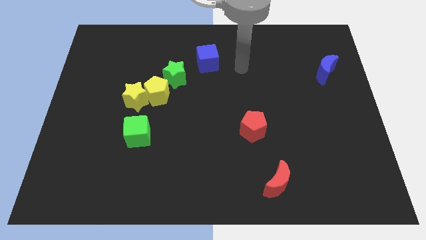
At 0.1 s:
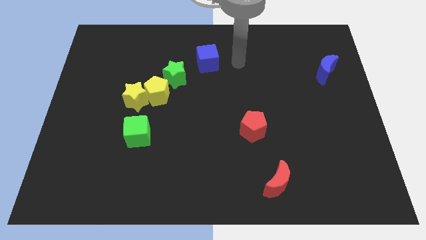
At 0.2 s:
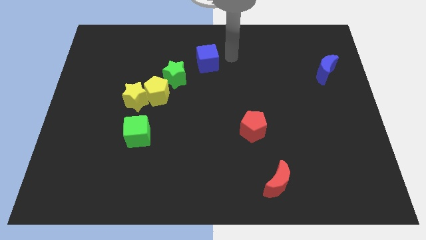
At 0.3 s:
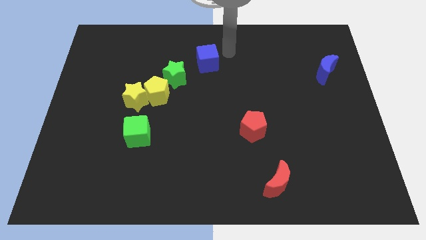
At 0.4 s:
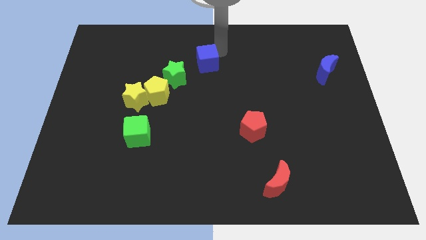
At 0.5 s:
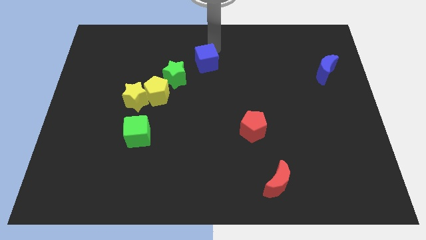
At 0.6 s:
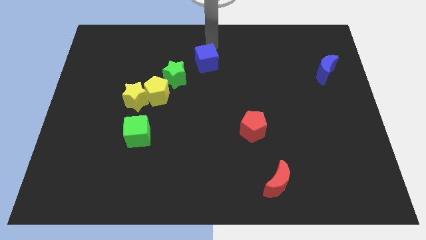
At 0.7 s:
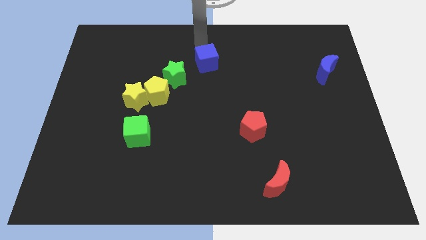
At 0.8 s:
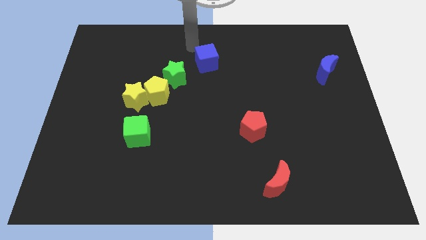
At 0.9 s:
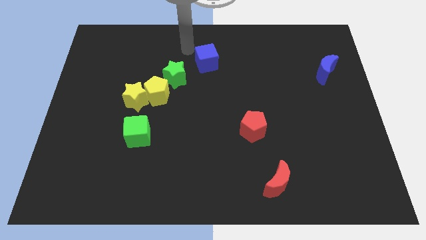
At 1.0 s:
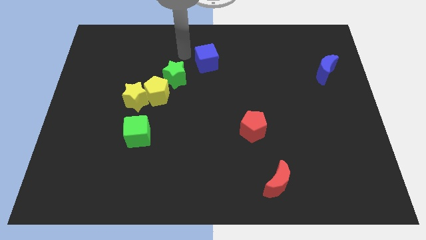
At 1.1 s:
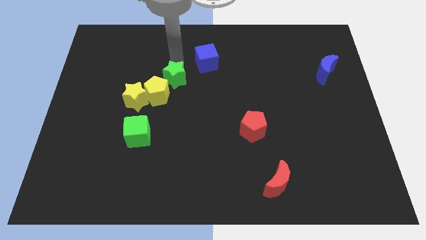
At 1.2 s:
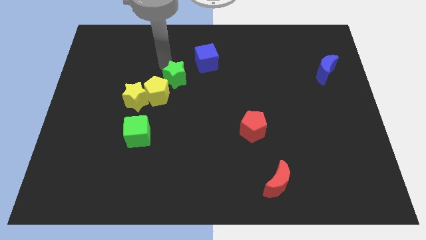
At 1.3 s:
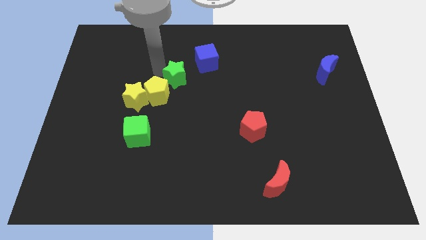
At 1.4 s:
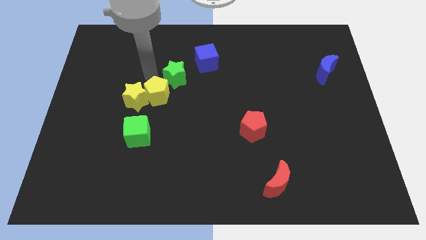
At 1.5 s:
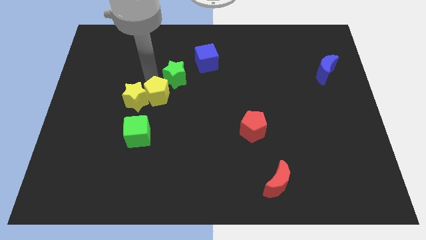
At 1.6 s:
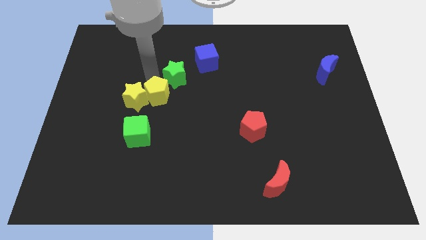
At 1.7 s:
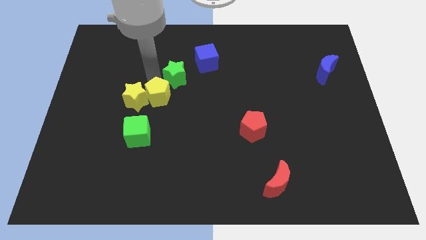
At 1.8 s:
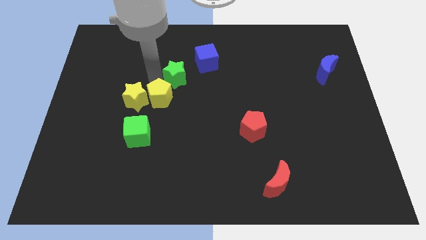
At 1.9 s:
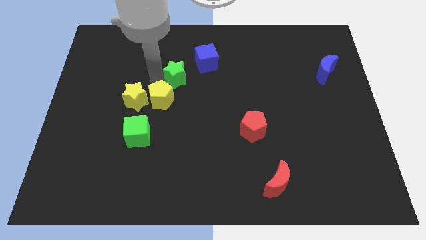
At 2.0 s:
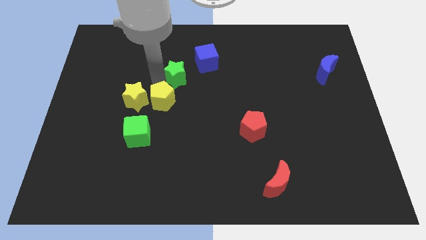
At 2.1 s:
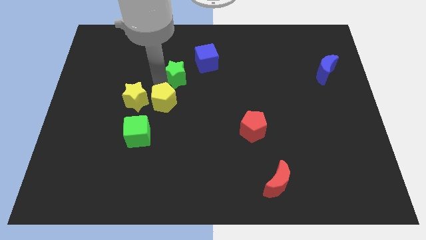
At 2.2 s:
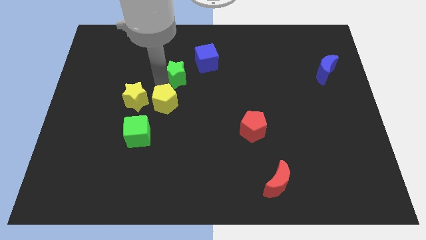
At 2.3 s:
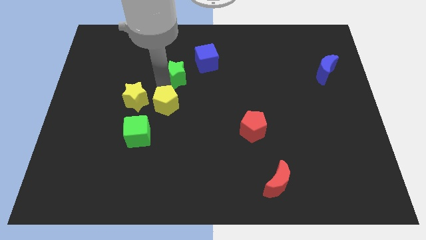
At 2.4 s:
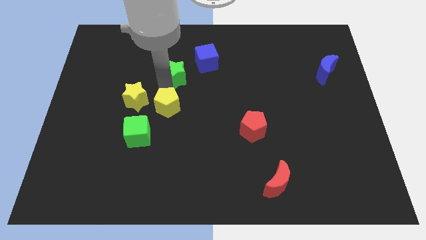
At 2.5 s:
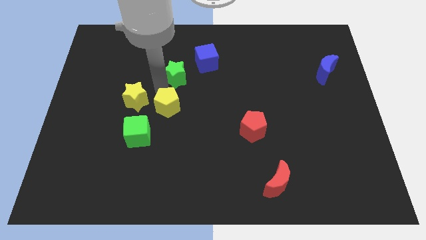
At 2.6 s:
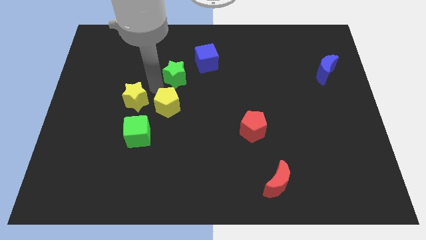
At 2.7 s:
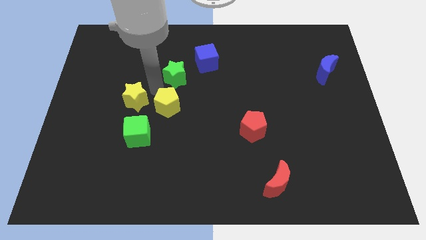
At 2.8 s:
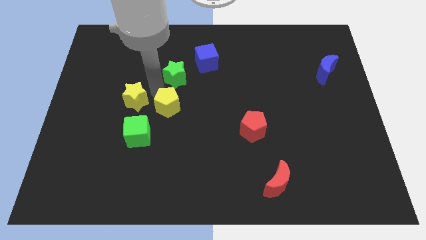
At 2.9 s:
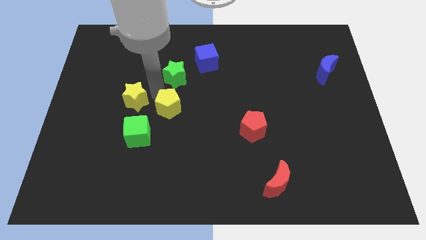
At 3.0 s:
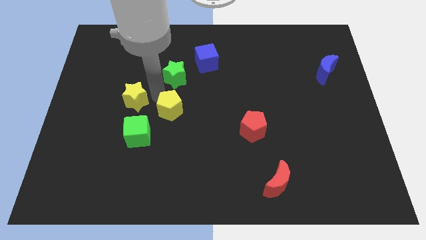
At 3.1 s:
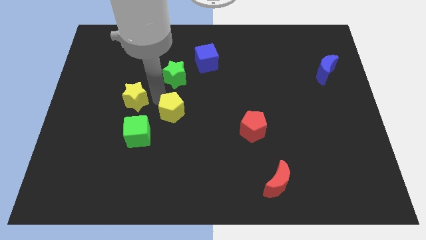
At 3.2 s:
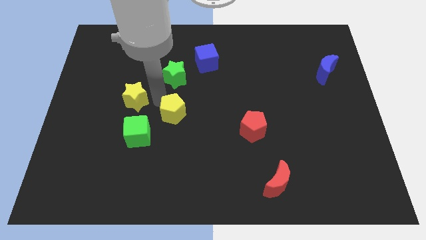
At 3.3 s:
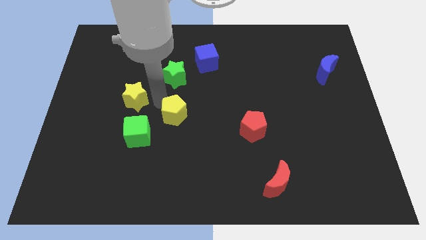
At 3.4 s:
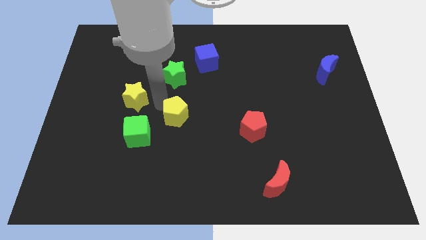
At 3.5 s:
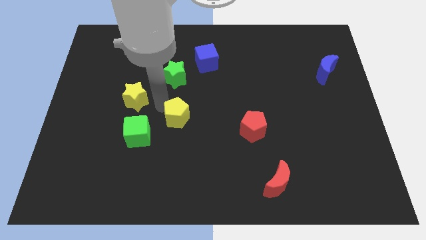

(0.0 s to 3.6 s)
move the yellow pentagon away from the yellow star and green star

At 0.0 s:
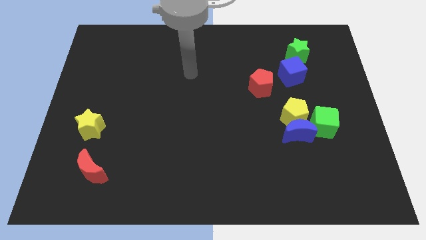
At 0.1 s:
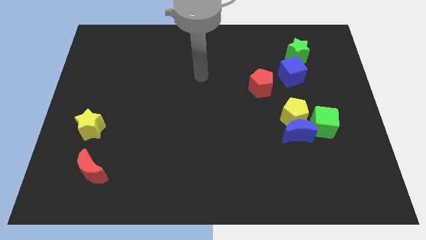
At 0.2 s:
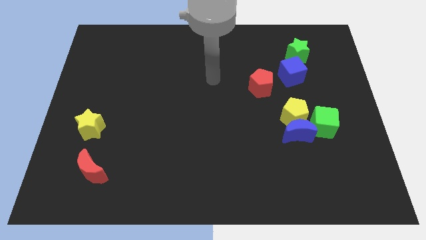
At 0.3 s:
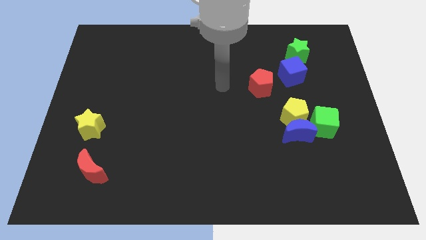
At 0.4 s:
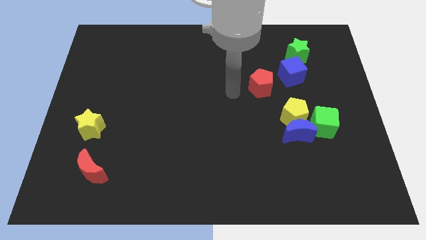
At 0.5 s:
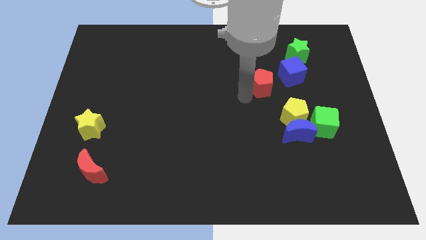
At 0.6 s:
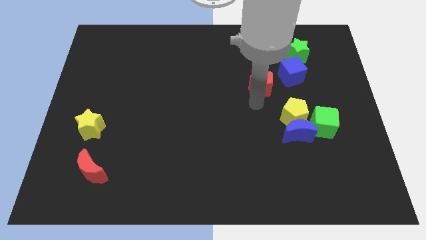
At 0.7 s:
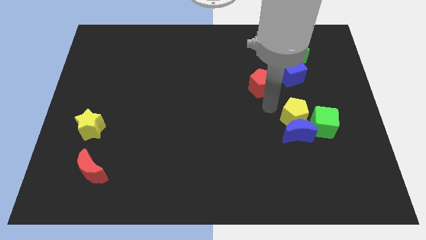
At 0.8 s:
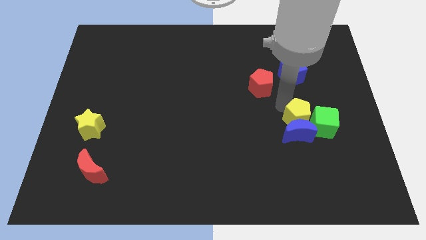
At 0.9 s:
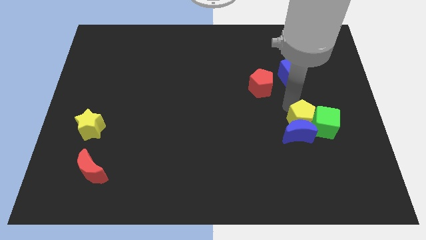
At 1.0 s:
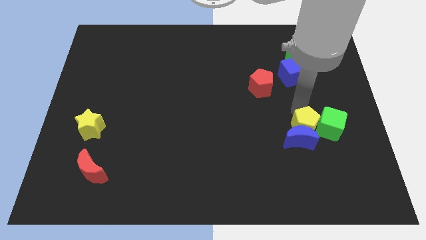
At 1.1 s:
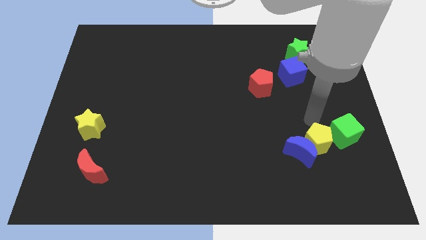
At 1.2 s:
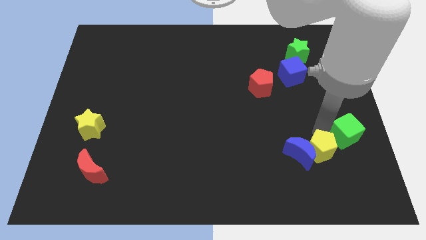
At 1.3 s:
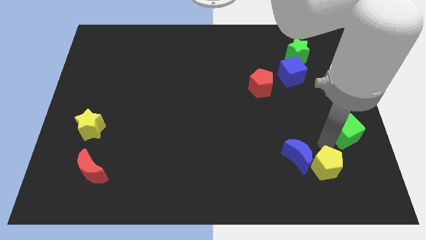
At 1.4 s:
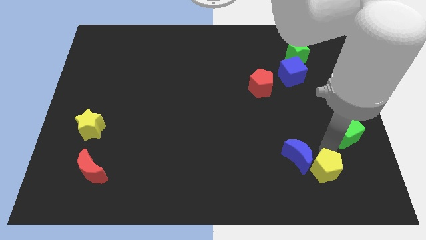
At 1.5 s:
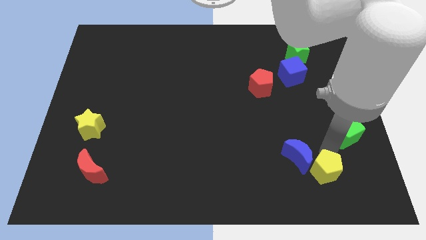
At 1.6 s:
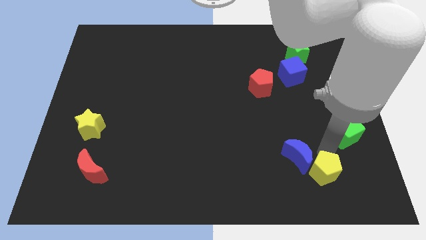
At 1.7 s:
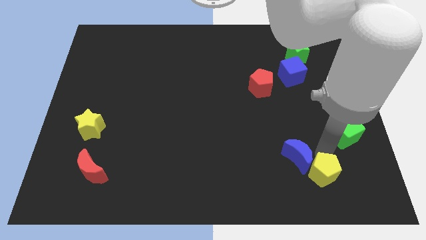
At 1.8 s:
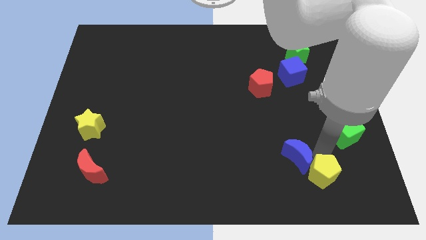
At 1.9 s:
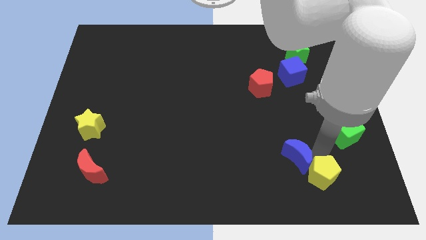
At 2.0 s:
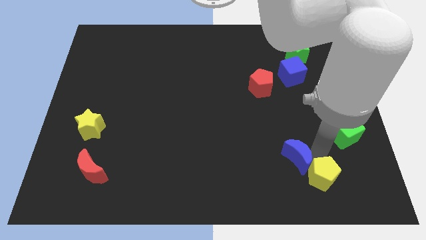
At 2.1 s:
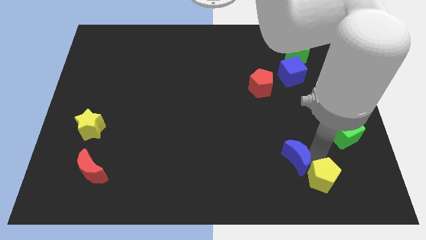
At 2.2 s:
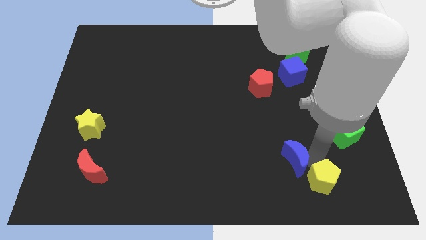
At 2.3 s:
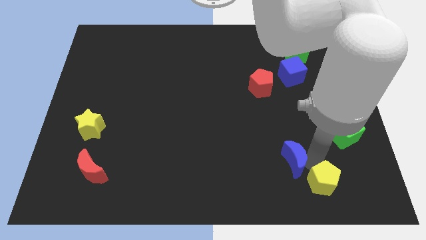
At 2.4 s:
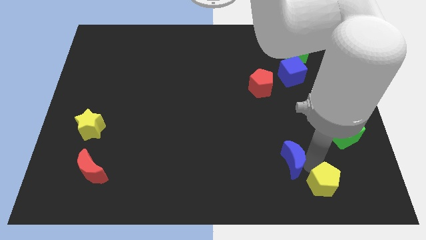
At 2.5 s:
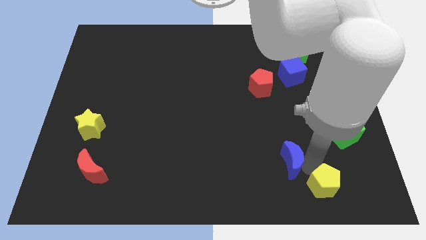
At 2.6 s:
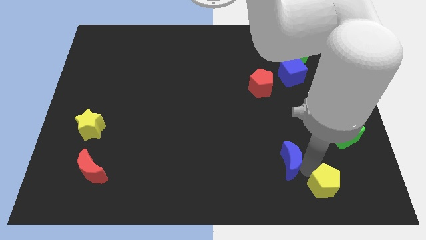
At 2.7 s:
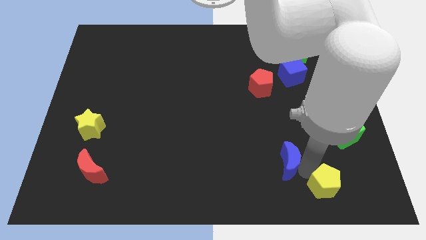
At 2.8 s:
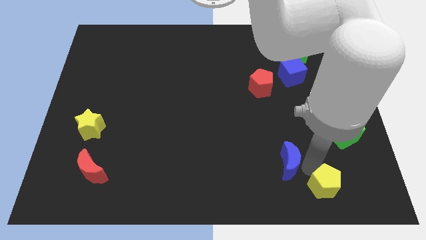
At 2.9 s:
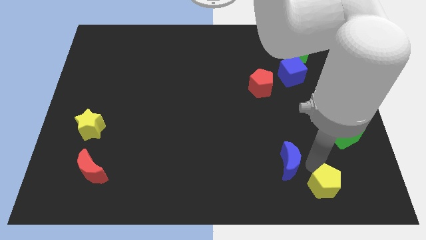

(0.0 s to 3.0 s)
move the blue moon away from the yellow pentagon and green cube

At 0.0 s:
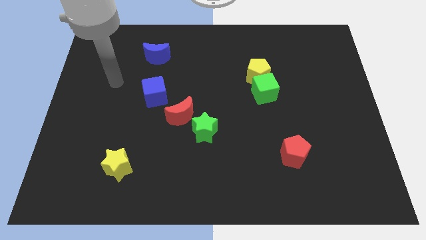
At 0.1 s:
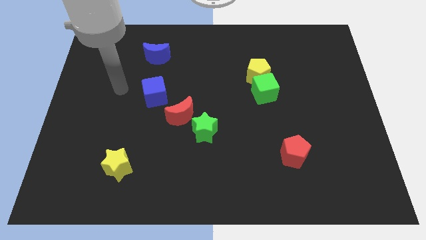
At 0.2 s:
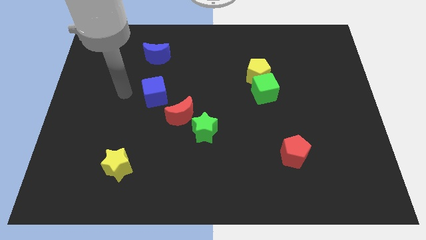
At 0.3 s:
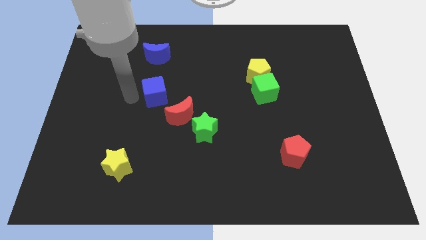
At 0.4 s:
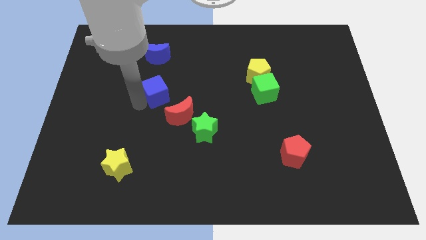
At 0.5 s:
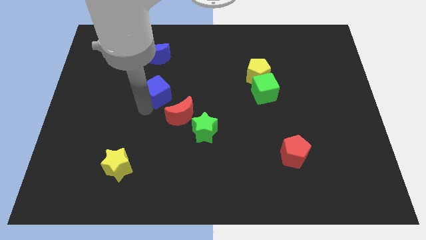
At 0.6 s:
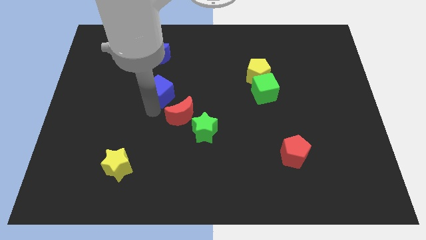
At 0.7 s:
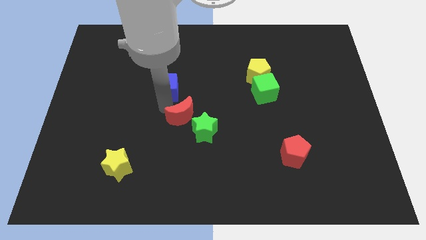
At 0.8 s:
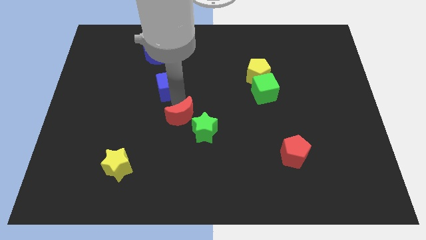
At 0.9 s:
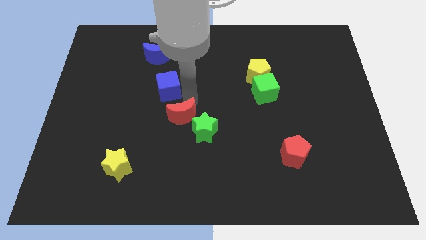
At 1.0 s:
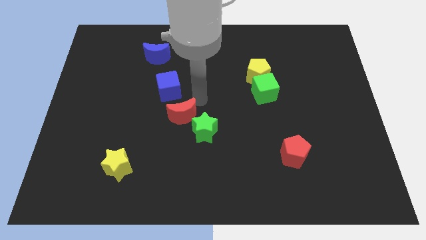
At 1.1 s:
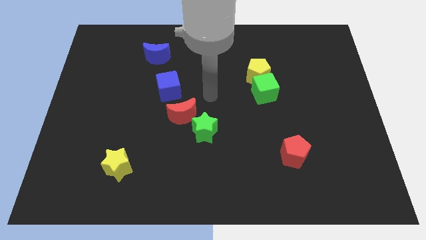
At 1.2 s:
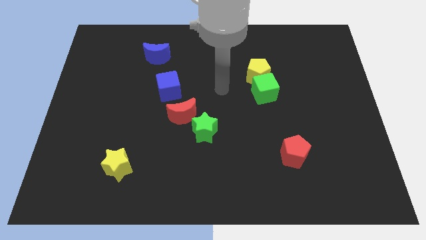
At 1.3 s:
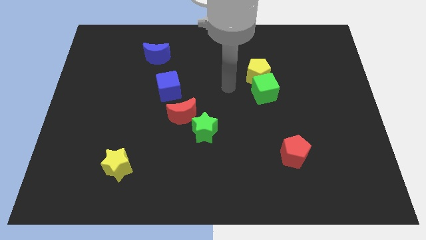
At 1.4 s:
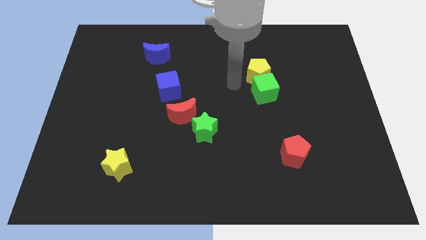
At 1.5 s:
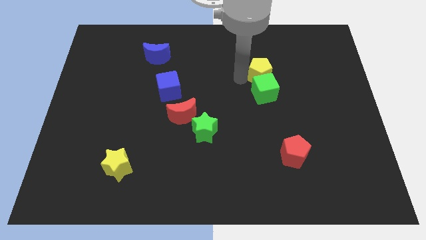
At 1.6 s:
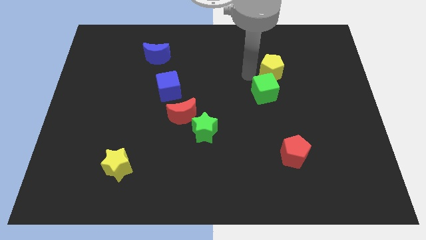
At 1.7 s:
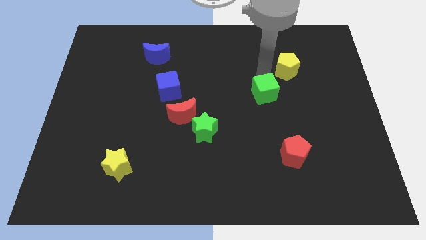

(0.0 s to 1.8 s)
separate the green cube from the yellow pentagon

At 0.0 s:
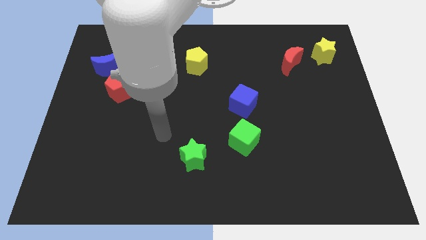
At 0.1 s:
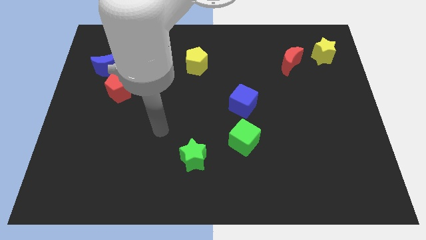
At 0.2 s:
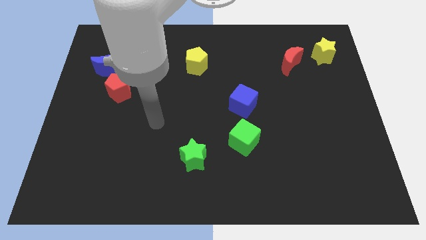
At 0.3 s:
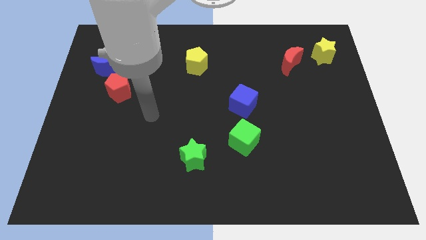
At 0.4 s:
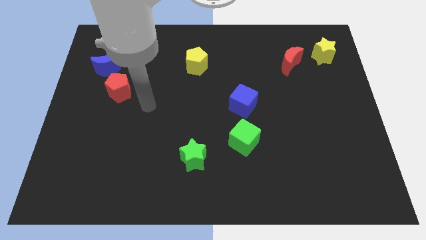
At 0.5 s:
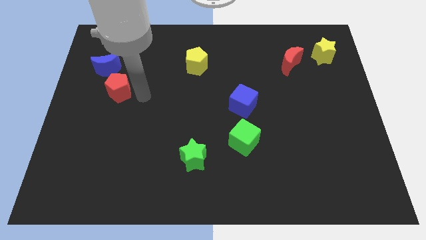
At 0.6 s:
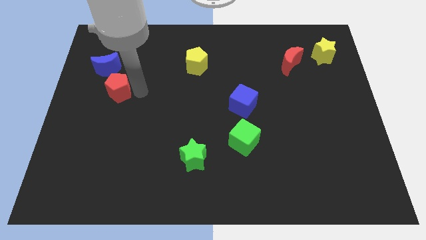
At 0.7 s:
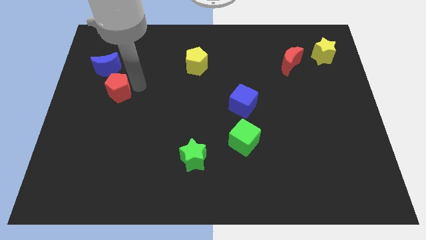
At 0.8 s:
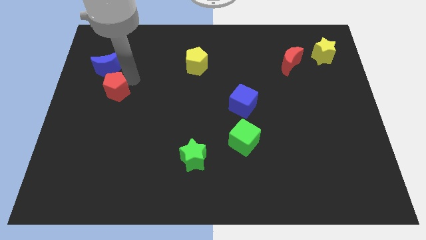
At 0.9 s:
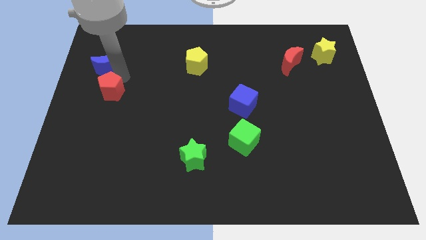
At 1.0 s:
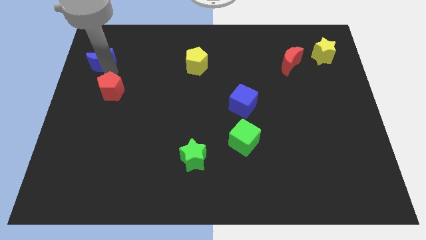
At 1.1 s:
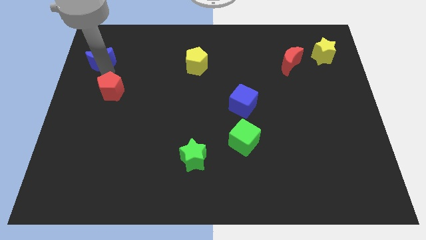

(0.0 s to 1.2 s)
move the red pentagon away from the blue moon
